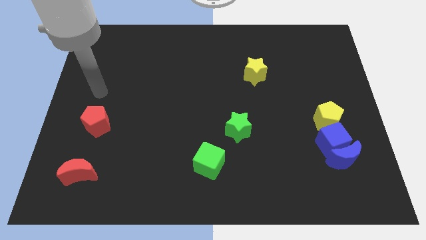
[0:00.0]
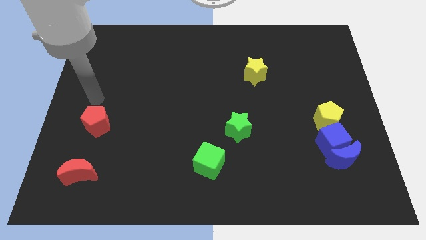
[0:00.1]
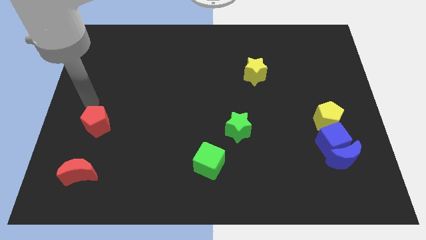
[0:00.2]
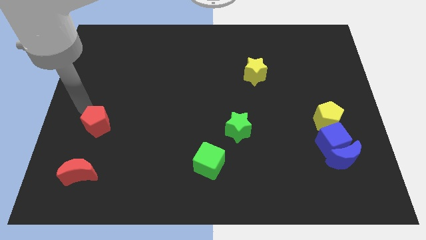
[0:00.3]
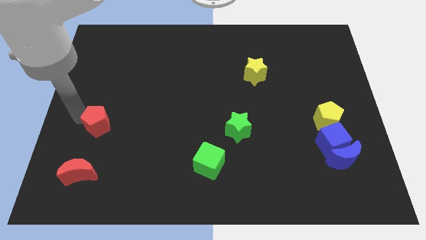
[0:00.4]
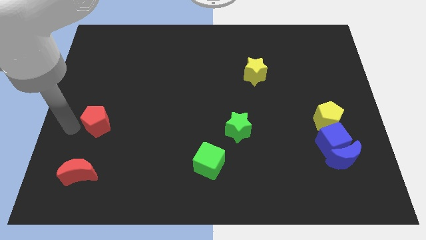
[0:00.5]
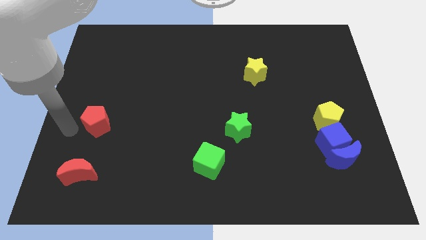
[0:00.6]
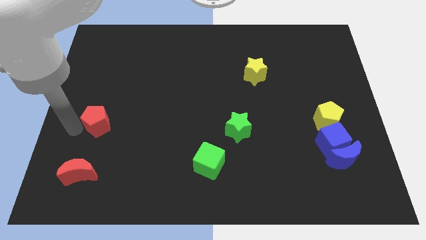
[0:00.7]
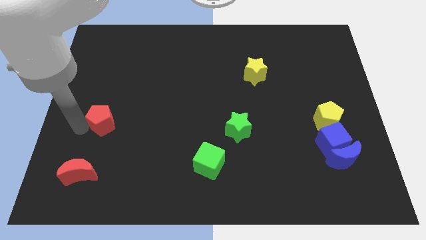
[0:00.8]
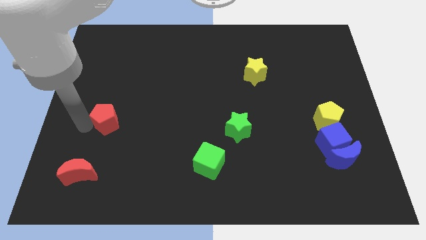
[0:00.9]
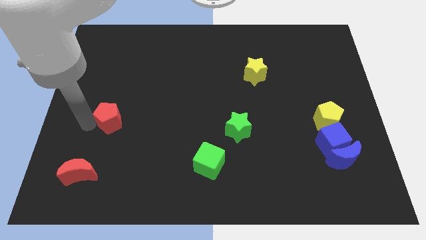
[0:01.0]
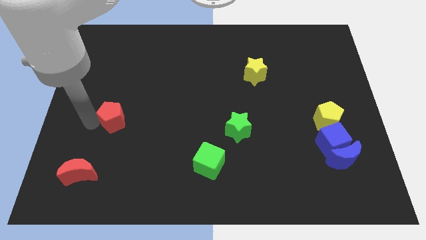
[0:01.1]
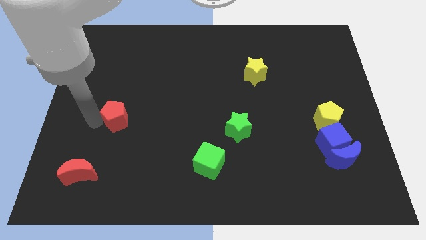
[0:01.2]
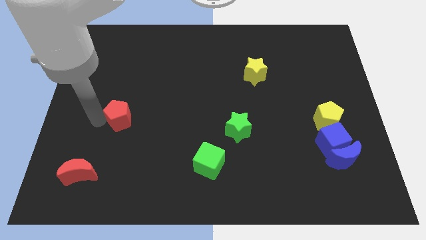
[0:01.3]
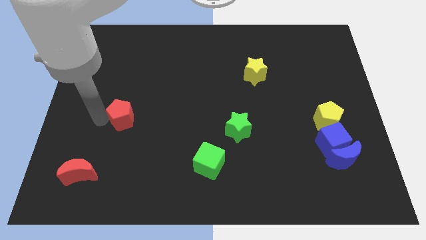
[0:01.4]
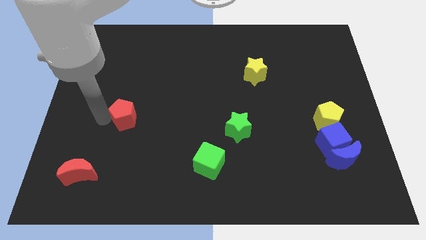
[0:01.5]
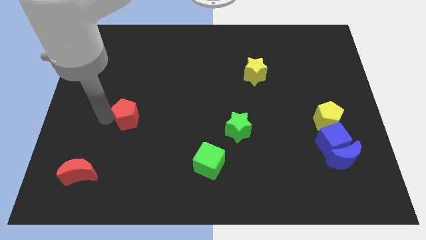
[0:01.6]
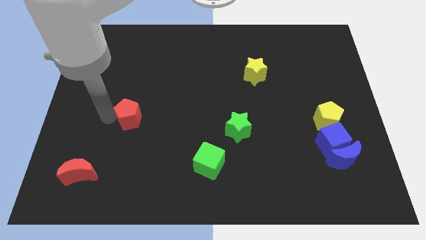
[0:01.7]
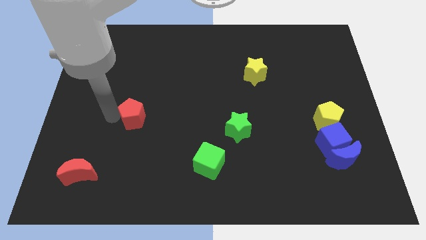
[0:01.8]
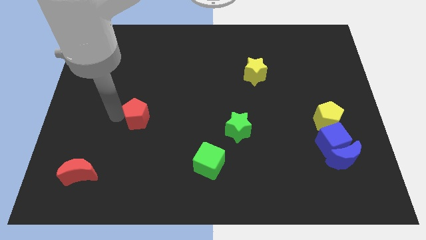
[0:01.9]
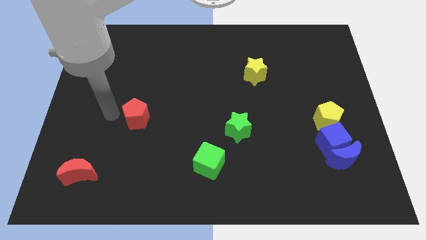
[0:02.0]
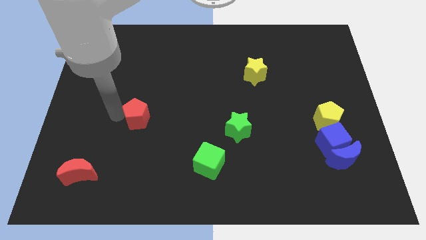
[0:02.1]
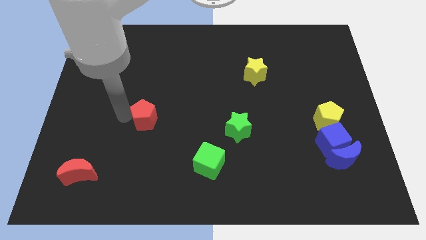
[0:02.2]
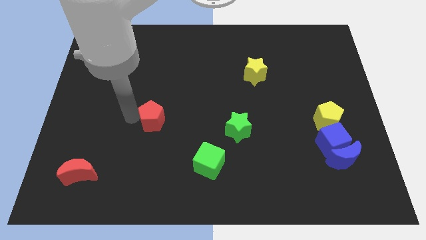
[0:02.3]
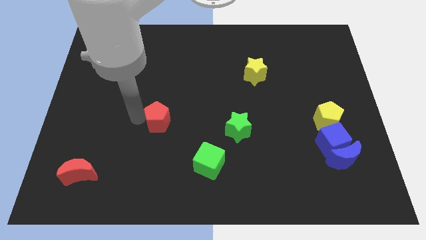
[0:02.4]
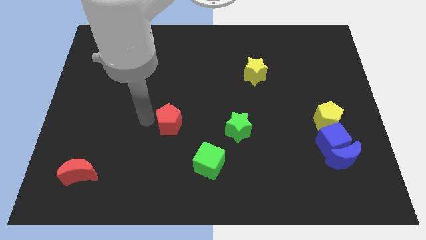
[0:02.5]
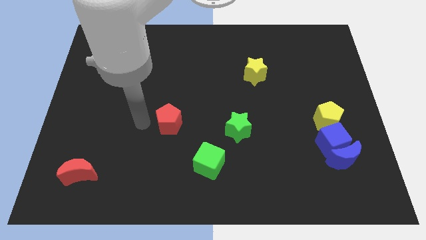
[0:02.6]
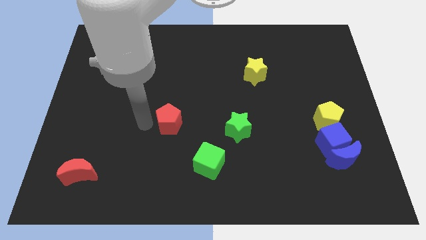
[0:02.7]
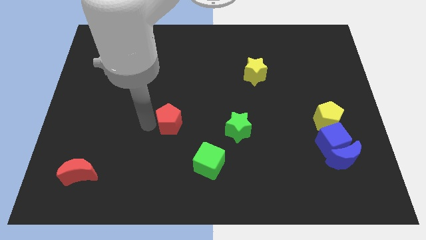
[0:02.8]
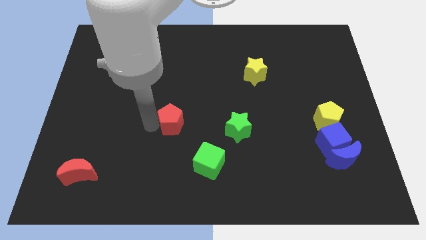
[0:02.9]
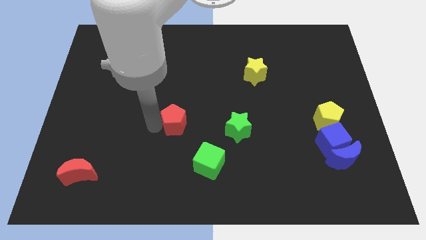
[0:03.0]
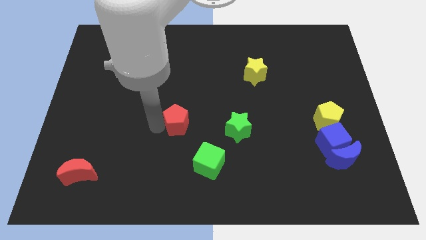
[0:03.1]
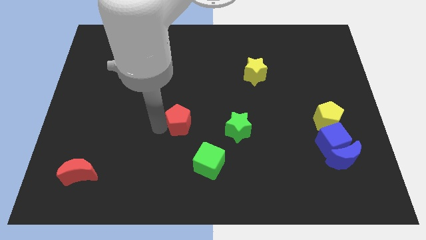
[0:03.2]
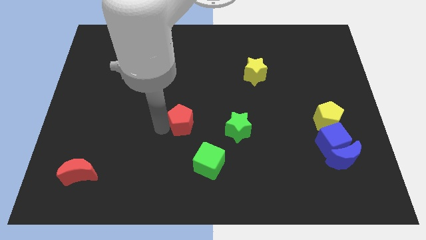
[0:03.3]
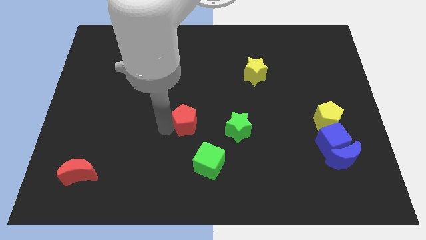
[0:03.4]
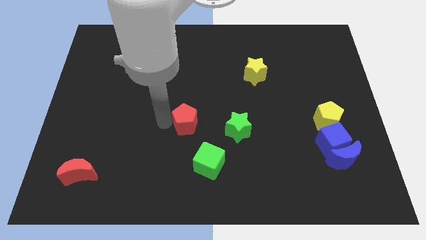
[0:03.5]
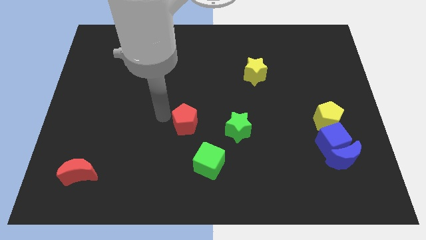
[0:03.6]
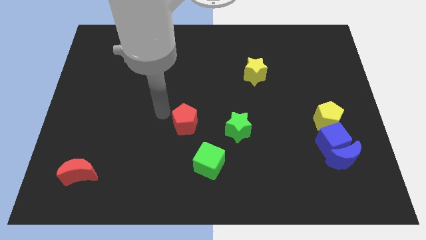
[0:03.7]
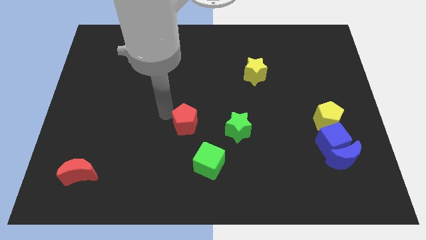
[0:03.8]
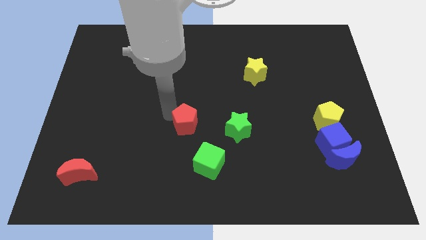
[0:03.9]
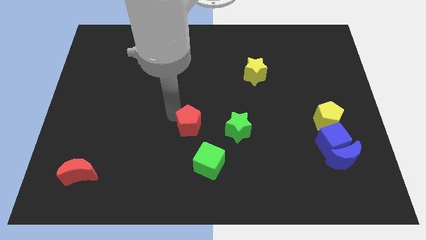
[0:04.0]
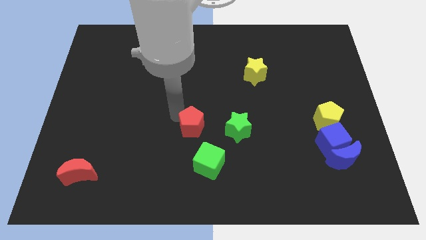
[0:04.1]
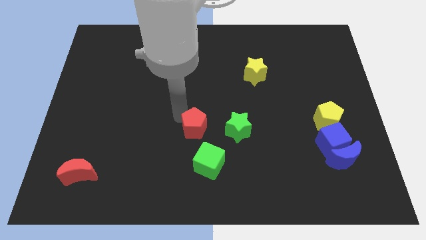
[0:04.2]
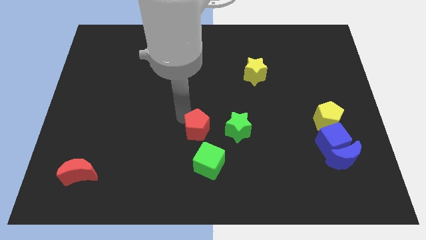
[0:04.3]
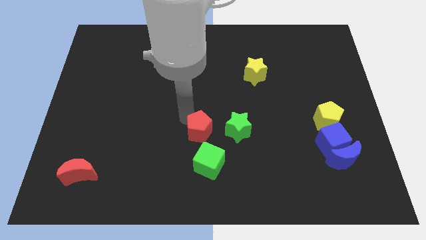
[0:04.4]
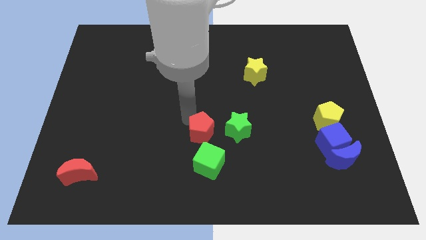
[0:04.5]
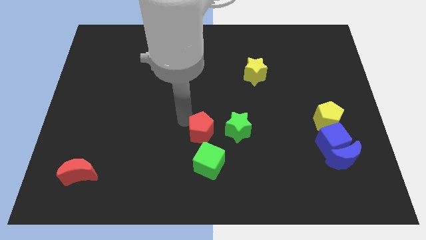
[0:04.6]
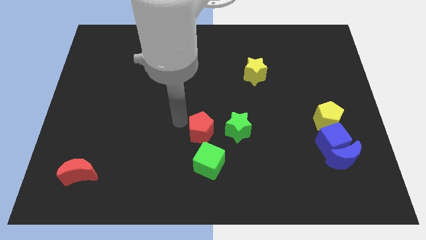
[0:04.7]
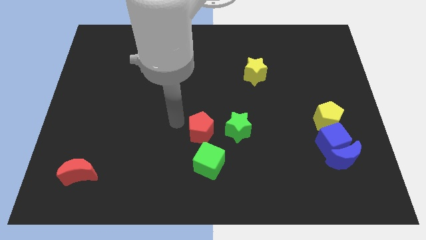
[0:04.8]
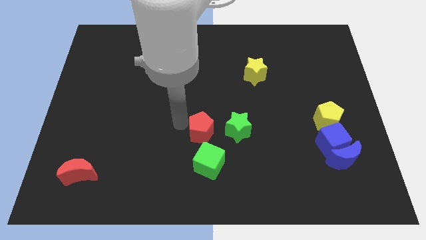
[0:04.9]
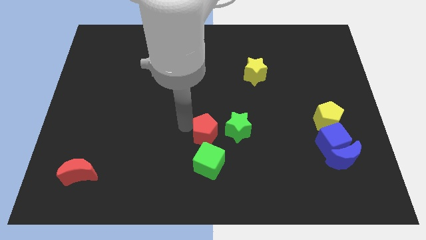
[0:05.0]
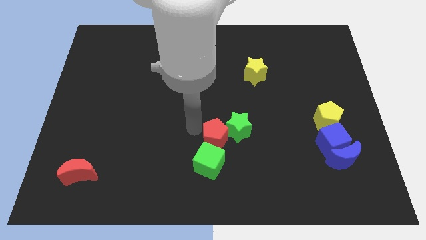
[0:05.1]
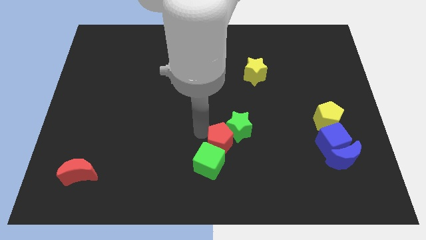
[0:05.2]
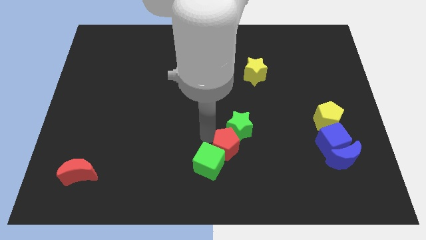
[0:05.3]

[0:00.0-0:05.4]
put the red pentagon to the right side of the green cube
